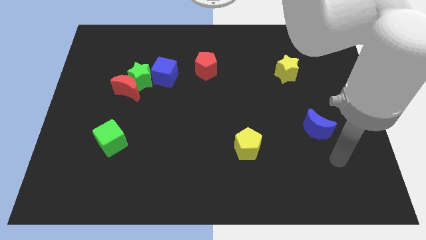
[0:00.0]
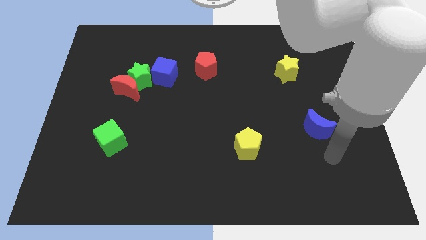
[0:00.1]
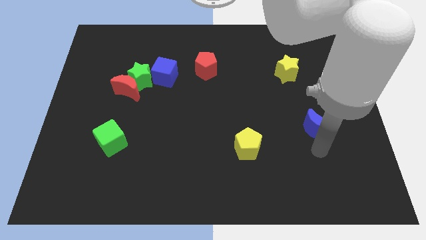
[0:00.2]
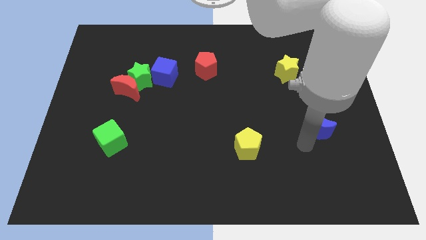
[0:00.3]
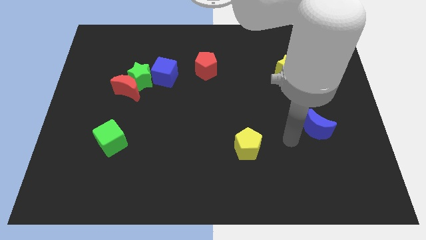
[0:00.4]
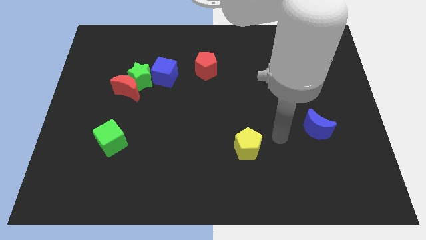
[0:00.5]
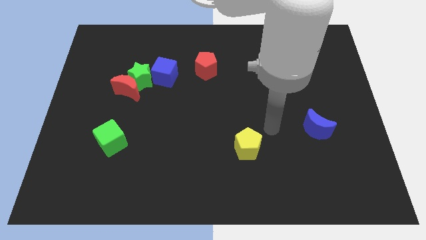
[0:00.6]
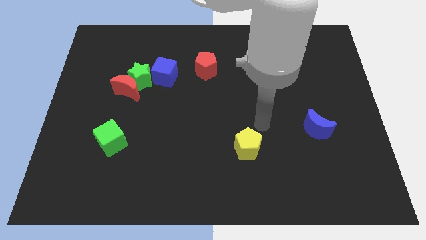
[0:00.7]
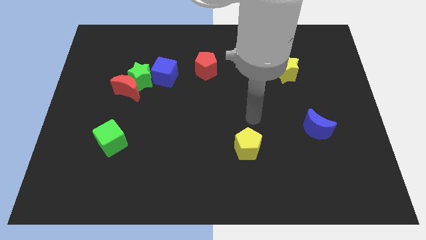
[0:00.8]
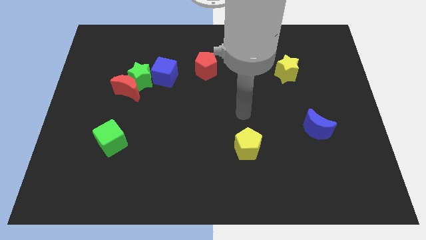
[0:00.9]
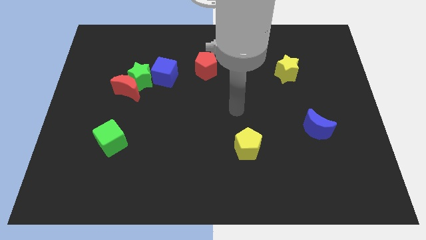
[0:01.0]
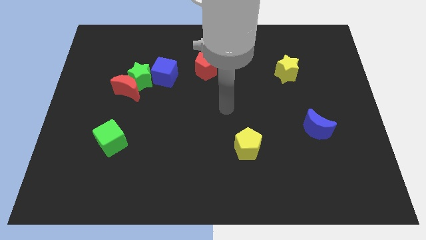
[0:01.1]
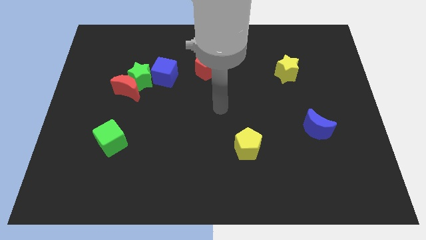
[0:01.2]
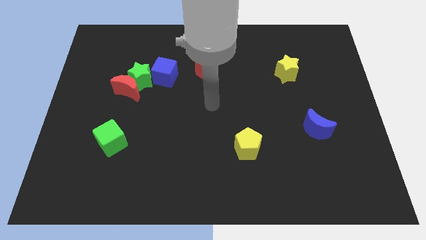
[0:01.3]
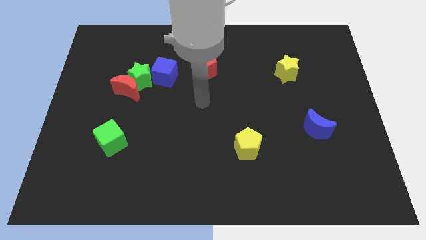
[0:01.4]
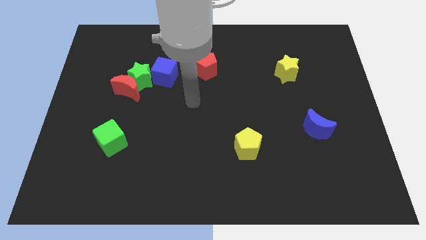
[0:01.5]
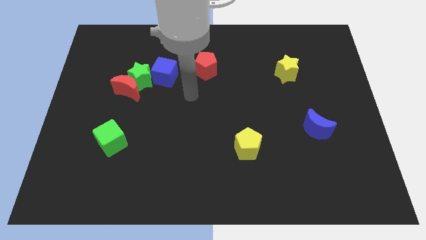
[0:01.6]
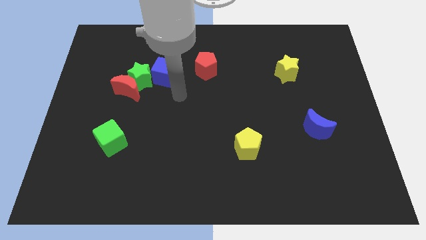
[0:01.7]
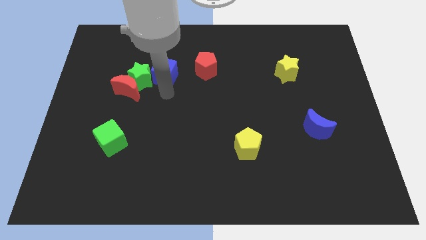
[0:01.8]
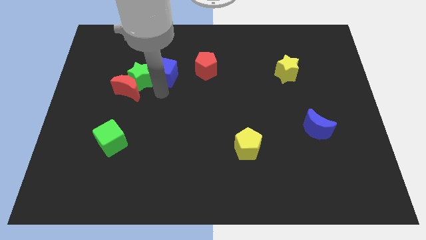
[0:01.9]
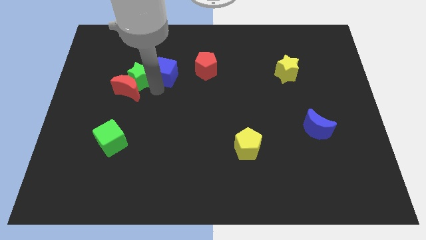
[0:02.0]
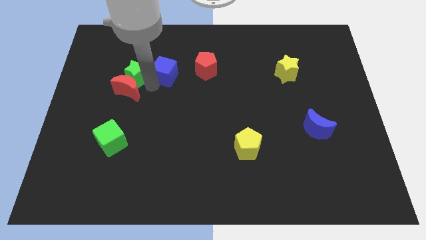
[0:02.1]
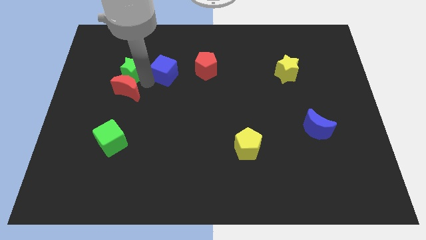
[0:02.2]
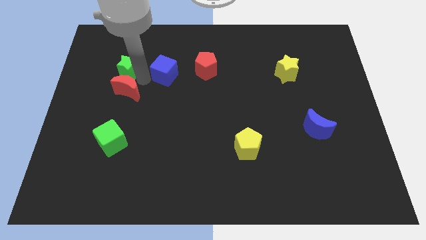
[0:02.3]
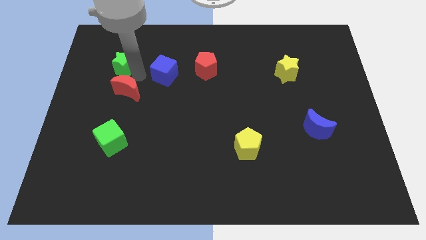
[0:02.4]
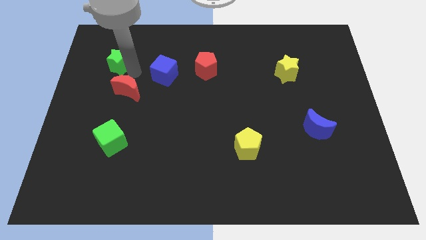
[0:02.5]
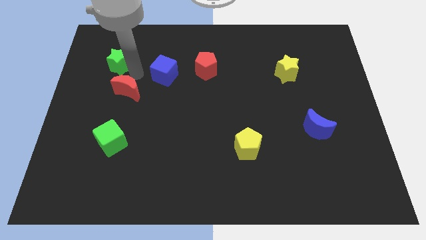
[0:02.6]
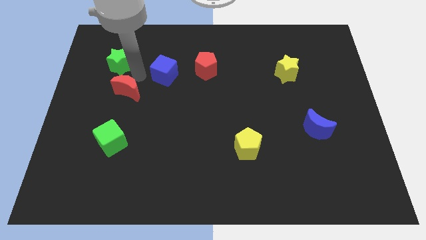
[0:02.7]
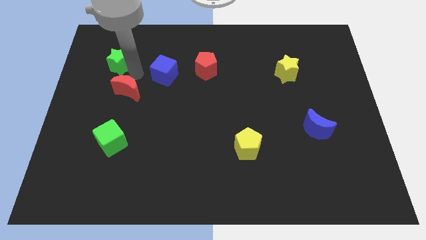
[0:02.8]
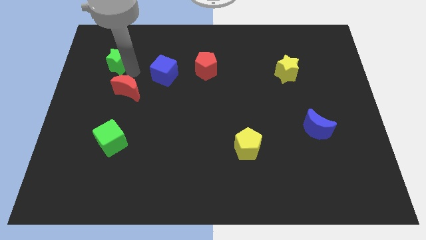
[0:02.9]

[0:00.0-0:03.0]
pull the green star apart from the red moon and blue cube

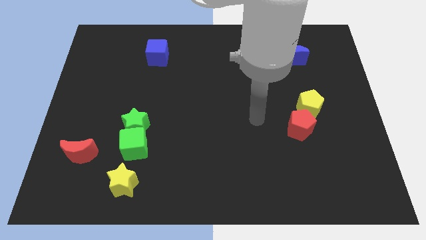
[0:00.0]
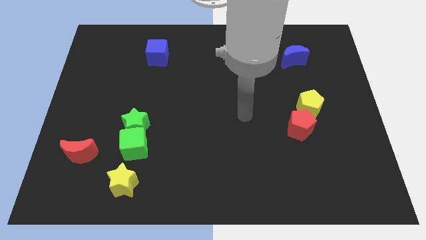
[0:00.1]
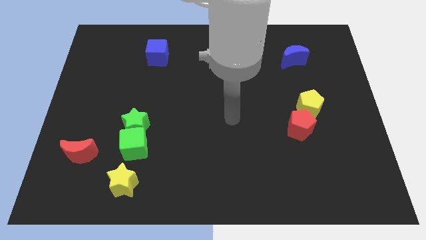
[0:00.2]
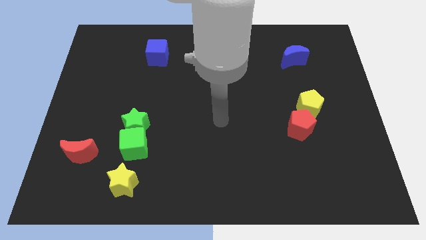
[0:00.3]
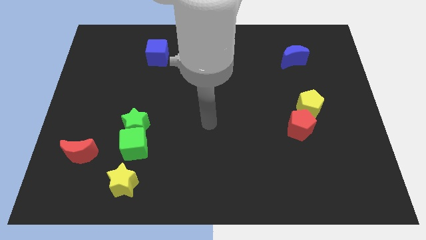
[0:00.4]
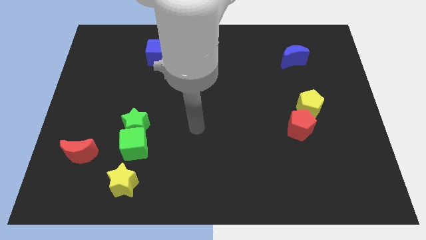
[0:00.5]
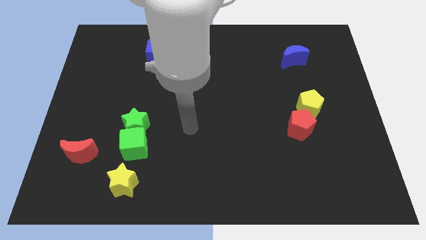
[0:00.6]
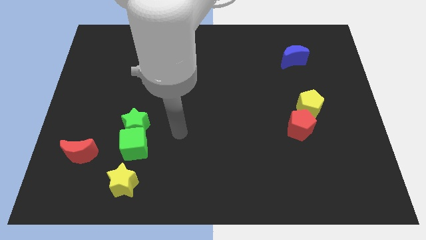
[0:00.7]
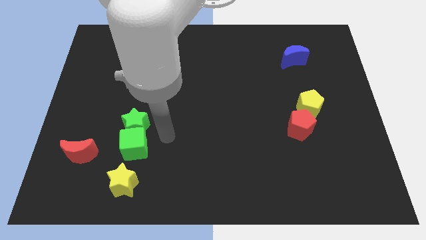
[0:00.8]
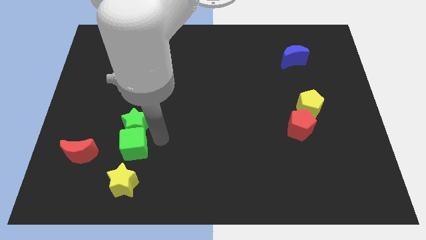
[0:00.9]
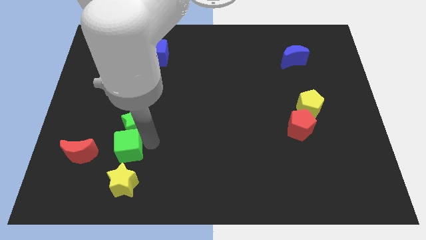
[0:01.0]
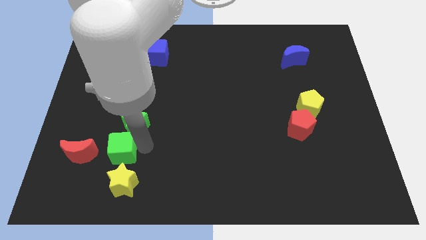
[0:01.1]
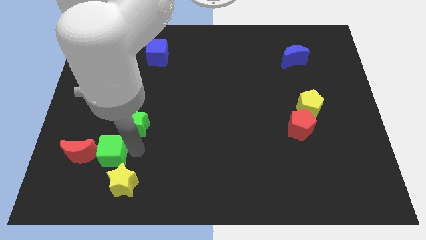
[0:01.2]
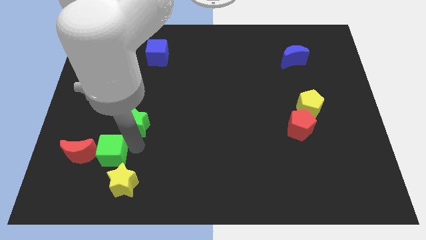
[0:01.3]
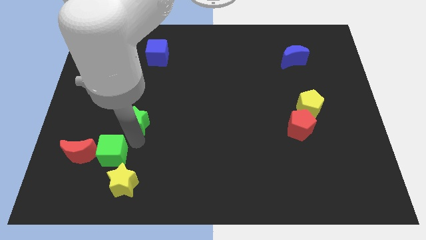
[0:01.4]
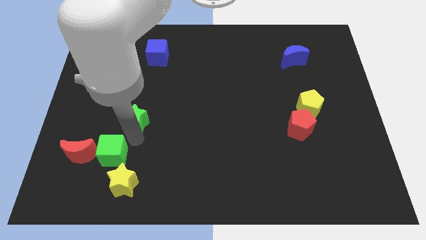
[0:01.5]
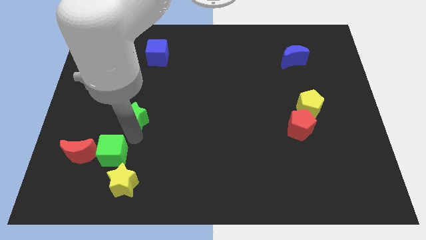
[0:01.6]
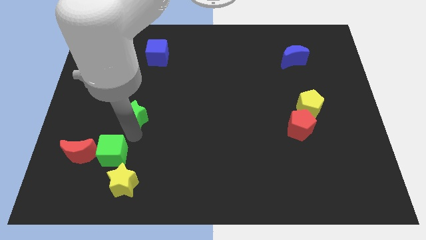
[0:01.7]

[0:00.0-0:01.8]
pull the green star apart from the green cube

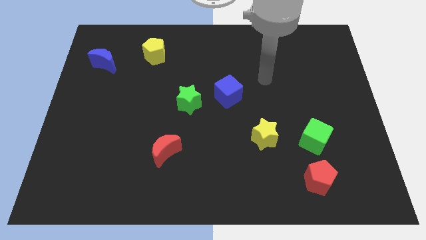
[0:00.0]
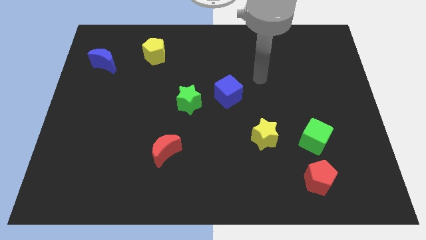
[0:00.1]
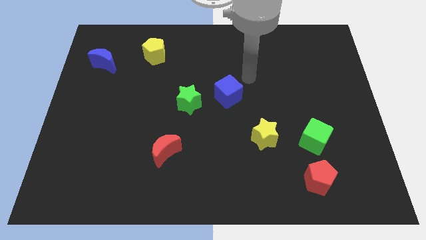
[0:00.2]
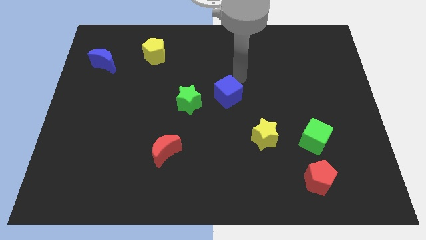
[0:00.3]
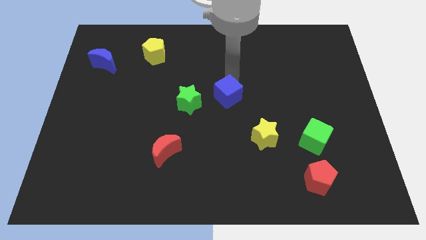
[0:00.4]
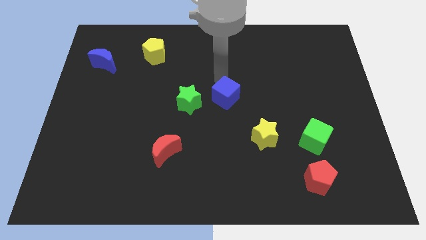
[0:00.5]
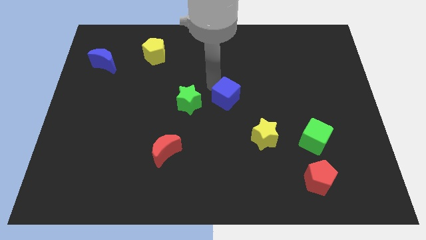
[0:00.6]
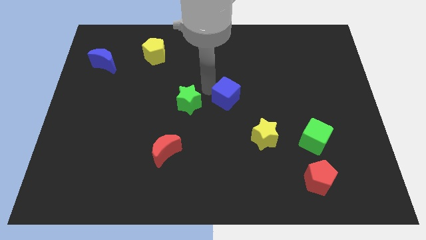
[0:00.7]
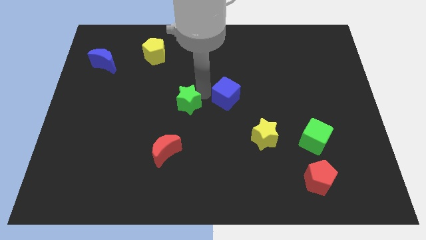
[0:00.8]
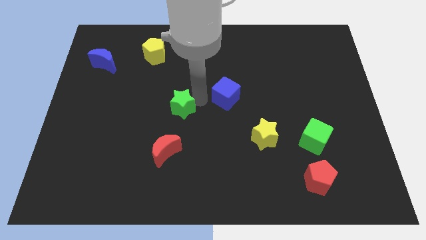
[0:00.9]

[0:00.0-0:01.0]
move the blue cube away from the green star

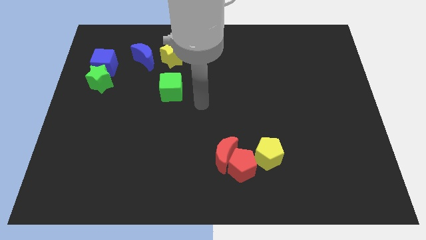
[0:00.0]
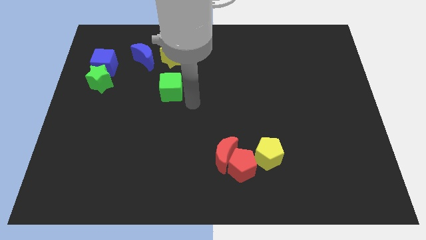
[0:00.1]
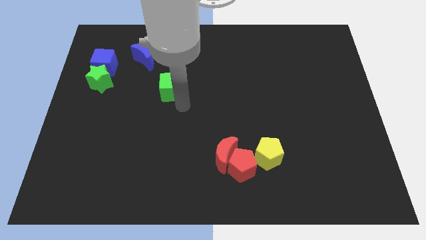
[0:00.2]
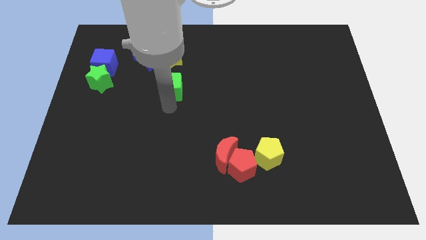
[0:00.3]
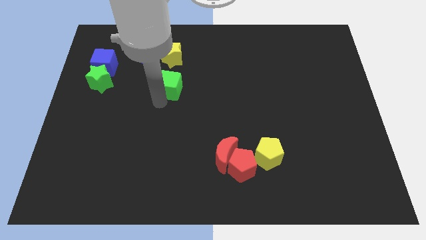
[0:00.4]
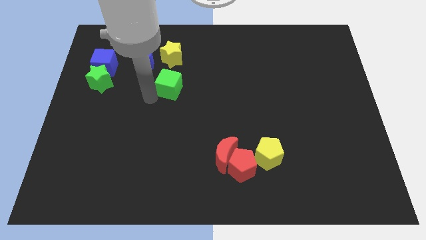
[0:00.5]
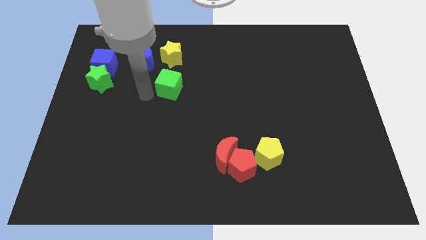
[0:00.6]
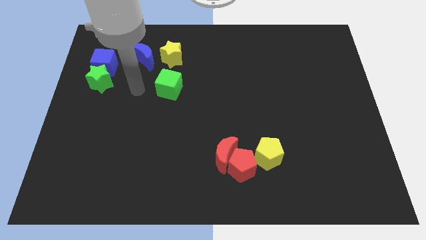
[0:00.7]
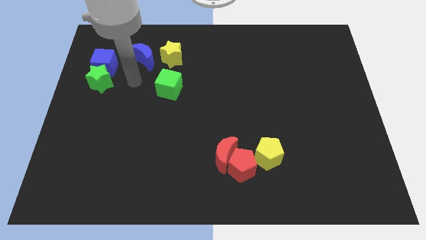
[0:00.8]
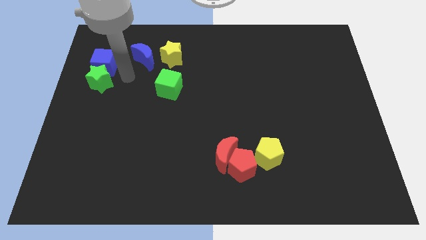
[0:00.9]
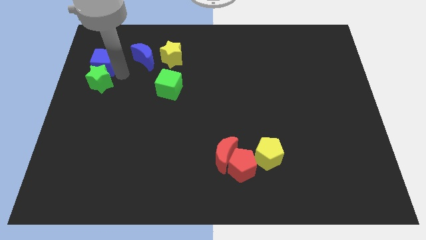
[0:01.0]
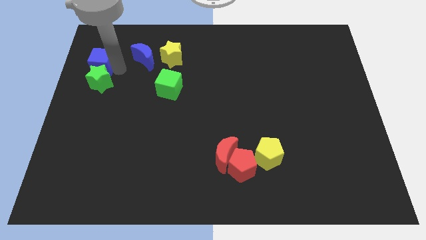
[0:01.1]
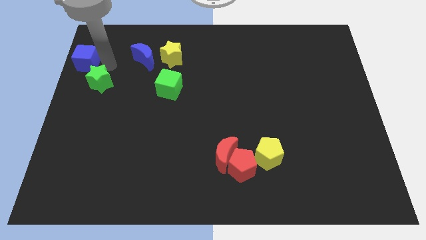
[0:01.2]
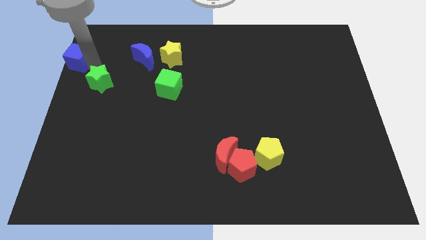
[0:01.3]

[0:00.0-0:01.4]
move the green star away from the blue cube

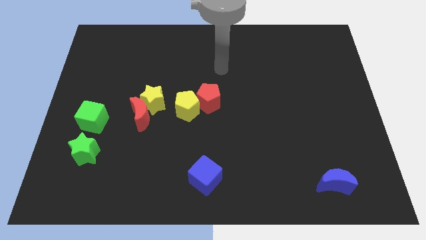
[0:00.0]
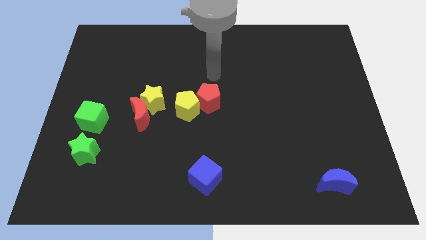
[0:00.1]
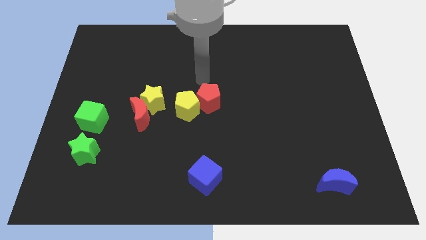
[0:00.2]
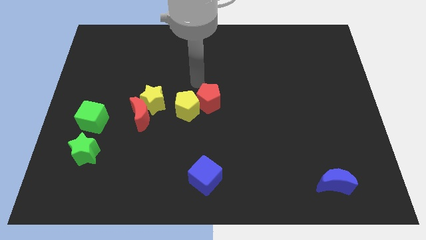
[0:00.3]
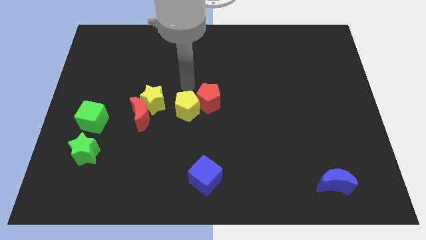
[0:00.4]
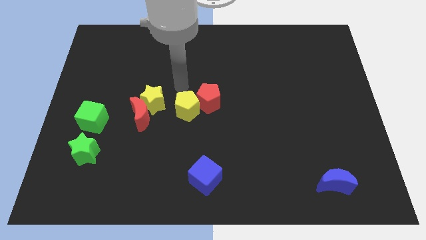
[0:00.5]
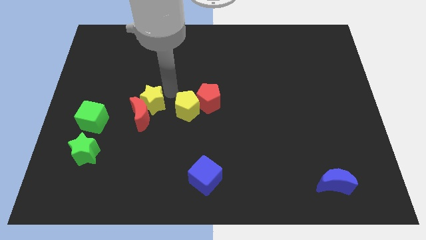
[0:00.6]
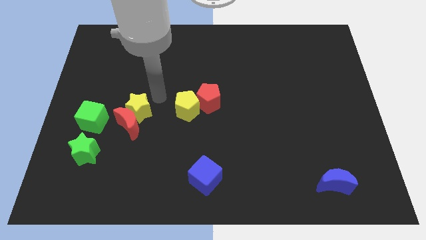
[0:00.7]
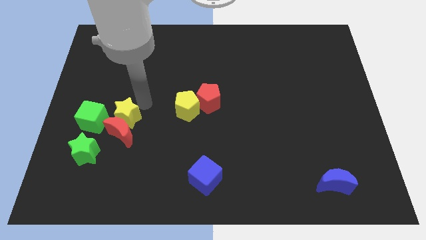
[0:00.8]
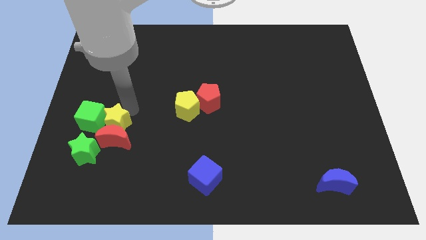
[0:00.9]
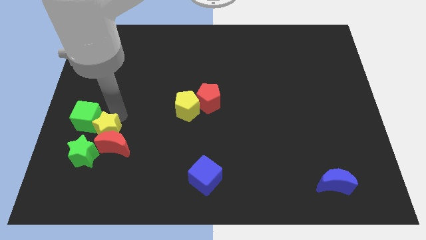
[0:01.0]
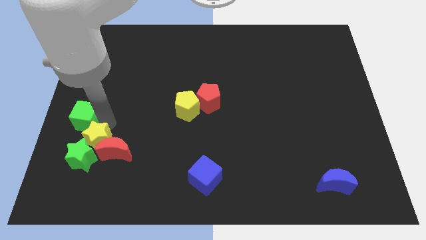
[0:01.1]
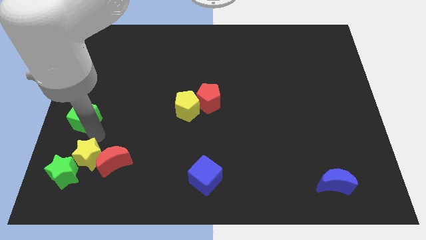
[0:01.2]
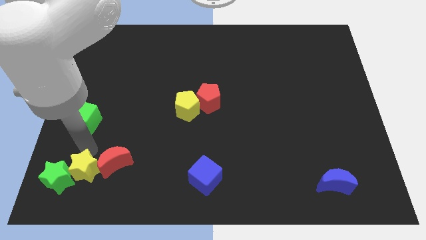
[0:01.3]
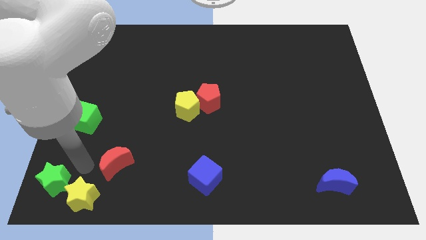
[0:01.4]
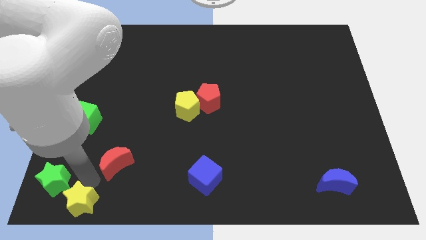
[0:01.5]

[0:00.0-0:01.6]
pull the red moon apart from the yellow star

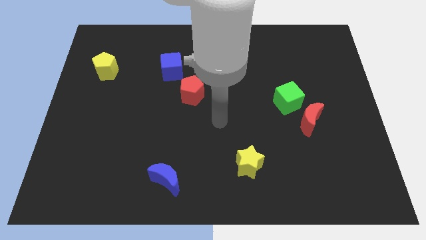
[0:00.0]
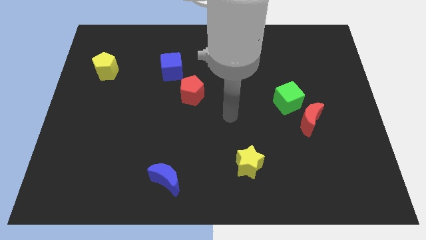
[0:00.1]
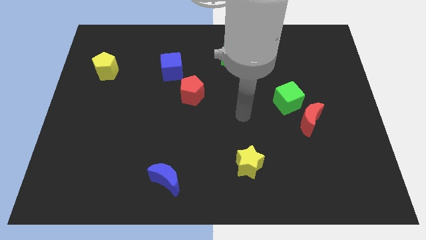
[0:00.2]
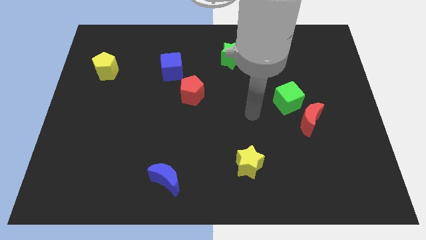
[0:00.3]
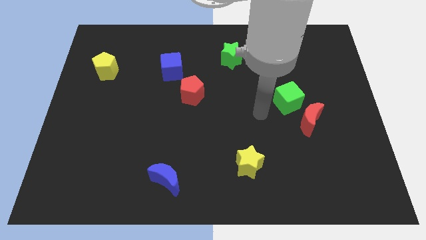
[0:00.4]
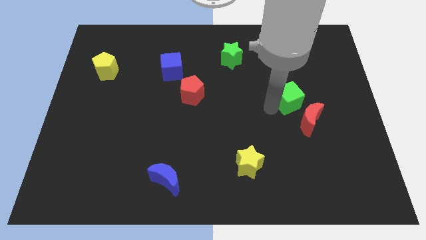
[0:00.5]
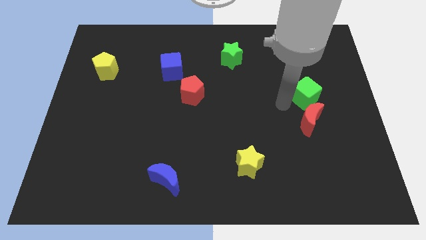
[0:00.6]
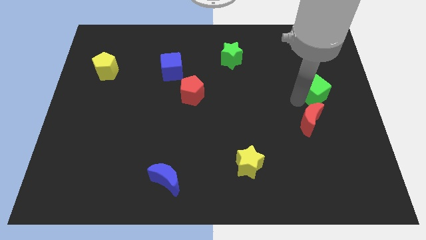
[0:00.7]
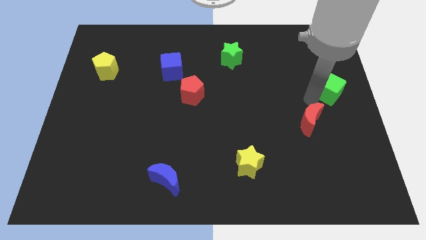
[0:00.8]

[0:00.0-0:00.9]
move the red moon away from the green cube
